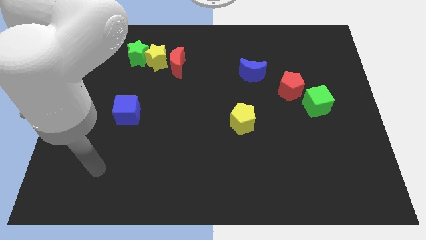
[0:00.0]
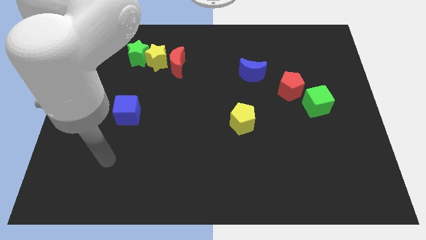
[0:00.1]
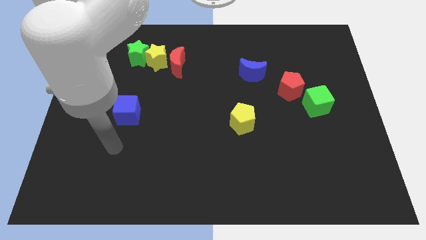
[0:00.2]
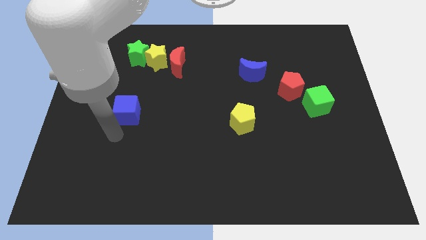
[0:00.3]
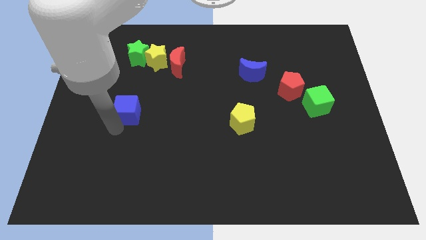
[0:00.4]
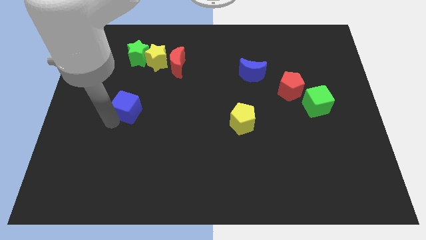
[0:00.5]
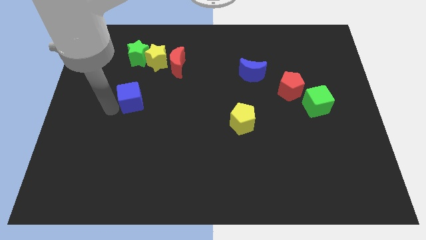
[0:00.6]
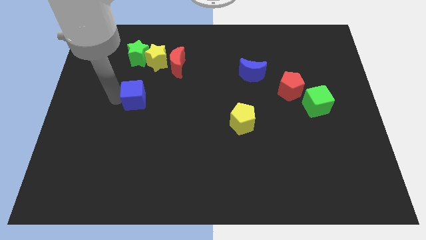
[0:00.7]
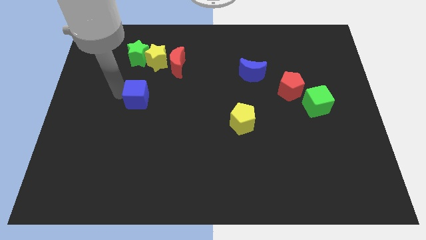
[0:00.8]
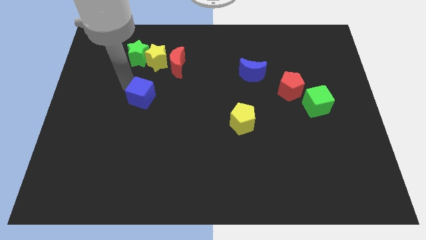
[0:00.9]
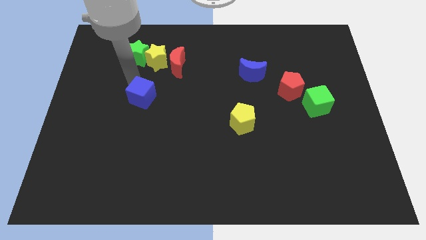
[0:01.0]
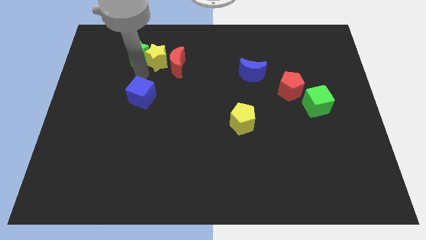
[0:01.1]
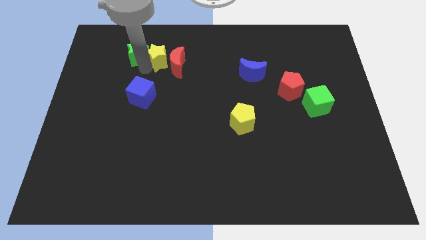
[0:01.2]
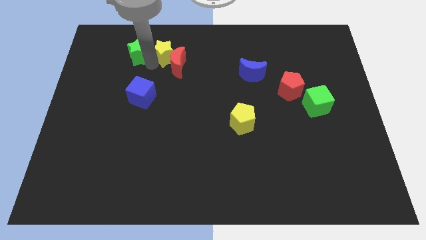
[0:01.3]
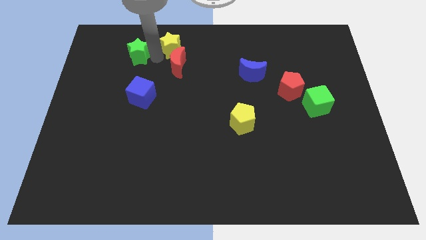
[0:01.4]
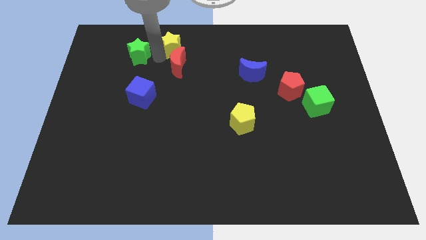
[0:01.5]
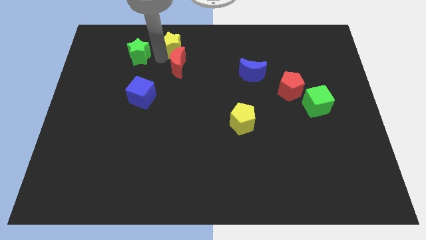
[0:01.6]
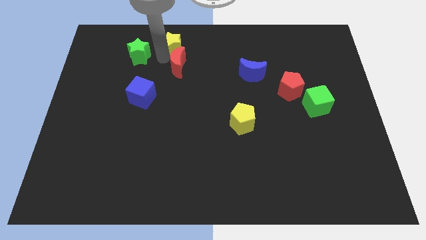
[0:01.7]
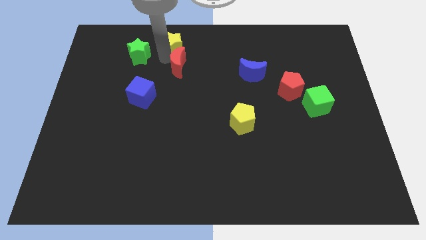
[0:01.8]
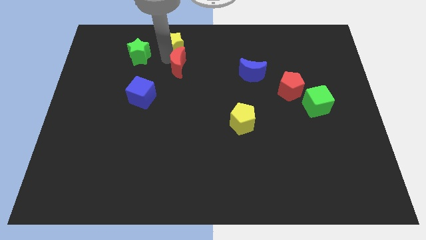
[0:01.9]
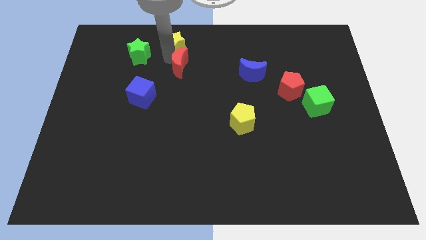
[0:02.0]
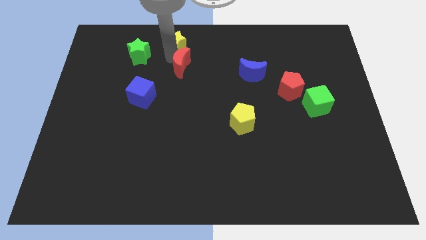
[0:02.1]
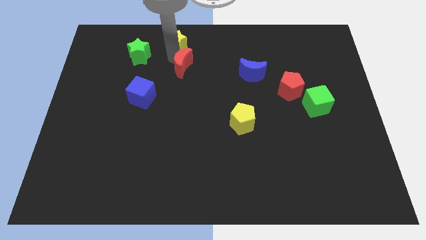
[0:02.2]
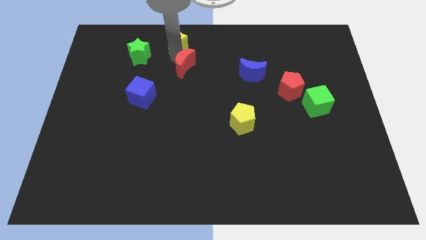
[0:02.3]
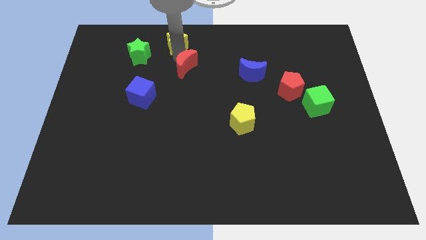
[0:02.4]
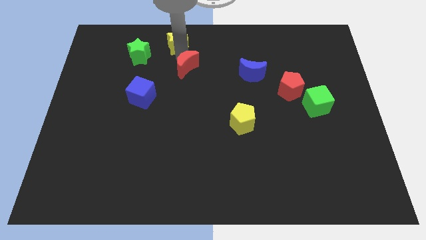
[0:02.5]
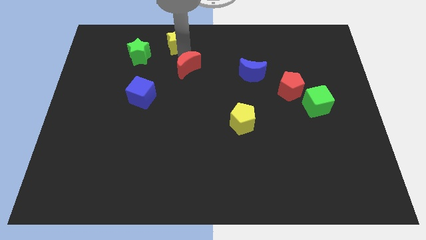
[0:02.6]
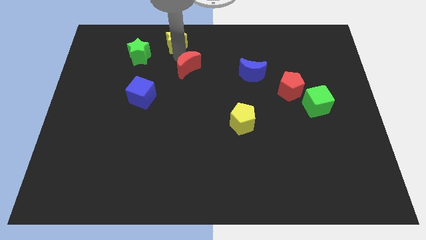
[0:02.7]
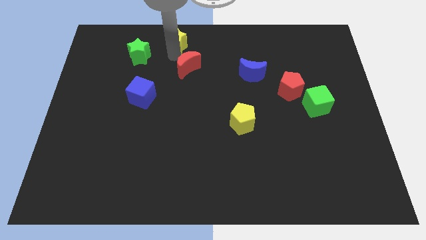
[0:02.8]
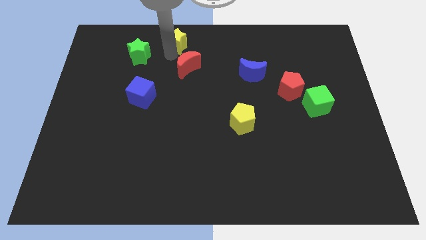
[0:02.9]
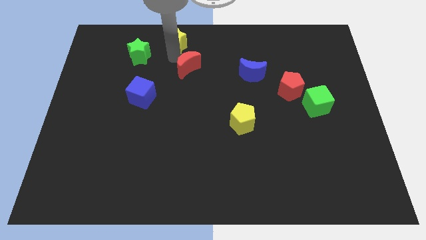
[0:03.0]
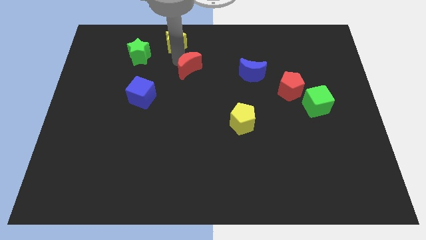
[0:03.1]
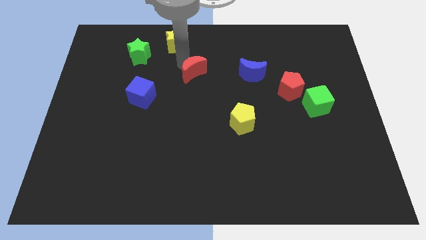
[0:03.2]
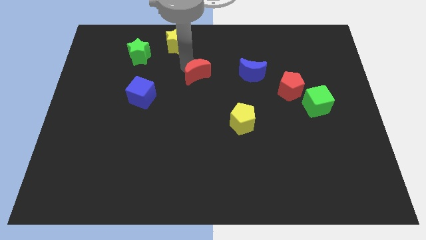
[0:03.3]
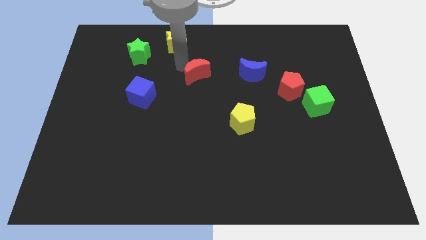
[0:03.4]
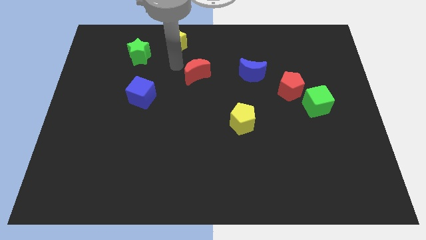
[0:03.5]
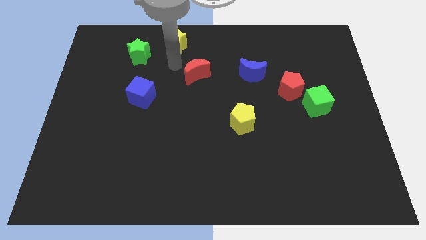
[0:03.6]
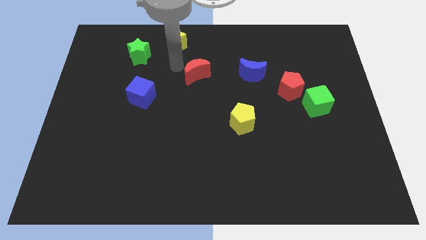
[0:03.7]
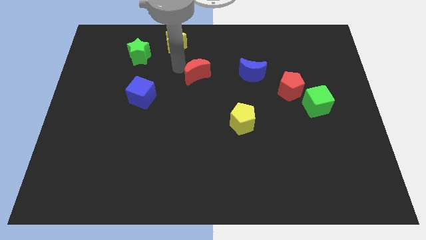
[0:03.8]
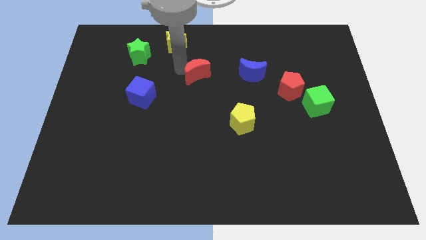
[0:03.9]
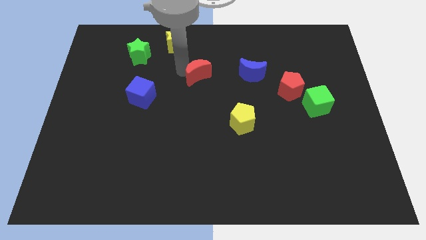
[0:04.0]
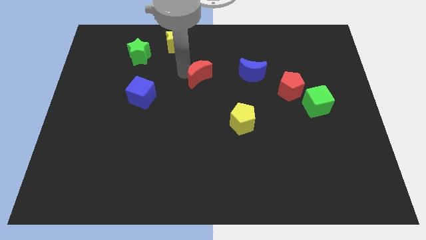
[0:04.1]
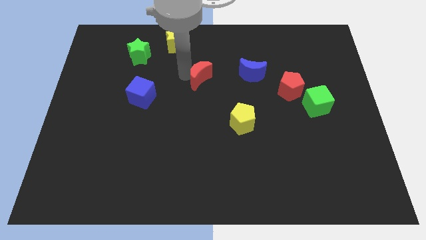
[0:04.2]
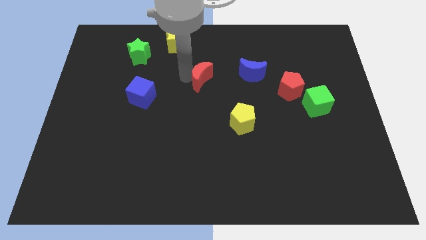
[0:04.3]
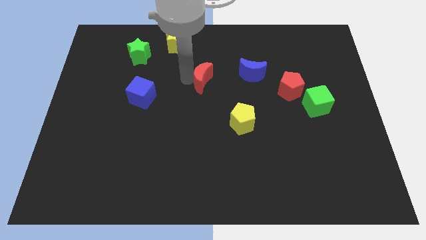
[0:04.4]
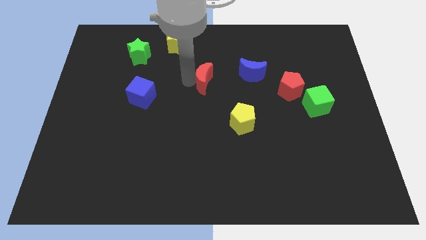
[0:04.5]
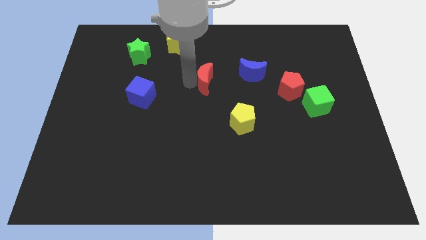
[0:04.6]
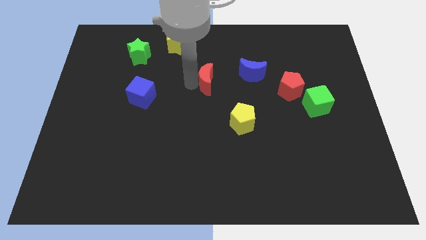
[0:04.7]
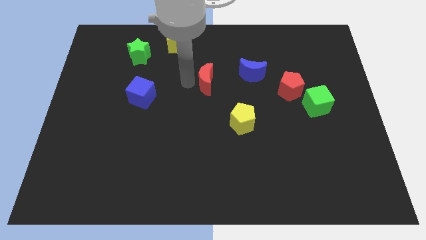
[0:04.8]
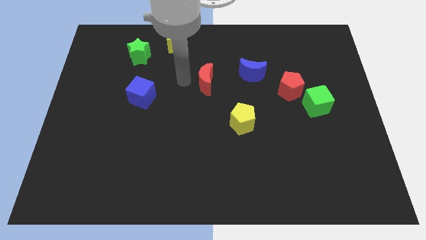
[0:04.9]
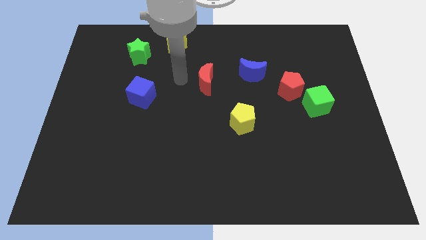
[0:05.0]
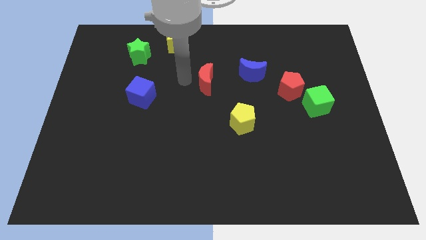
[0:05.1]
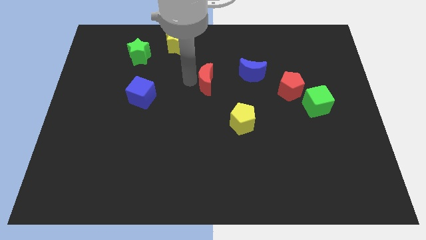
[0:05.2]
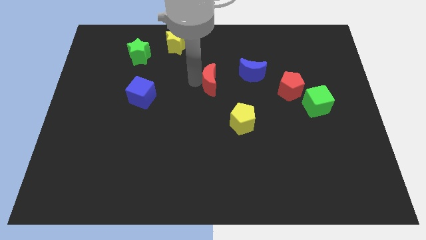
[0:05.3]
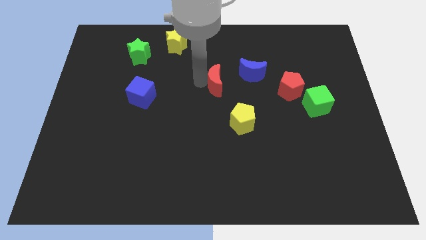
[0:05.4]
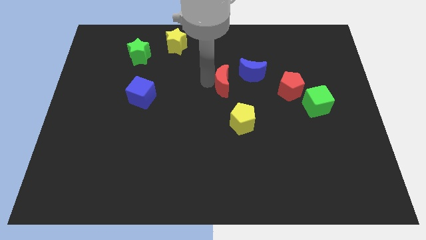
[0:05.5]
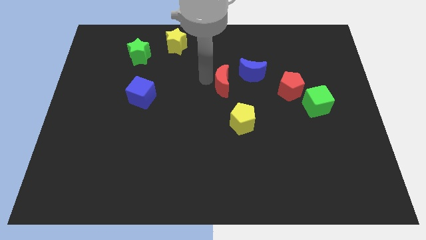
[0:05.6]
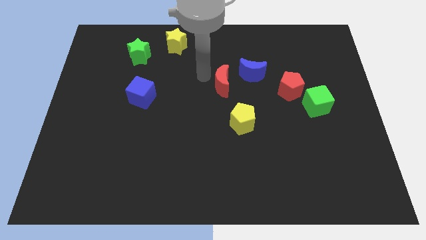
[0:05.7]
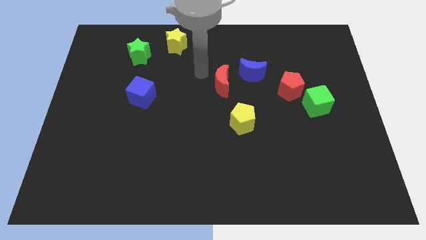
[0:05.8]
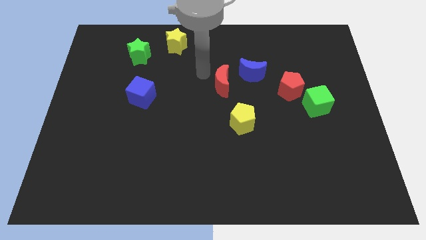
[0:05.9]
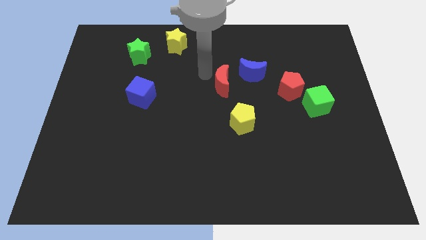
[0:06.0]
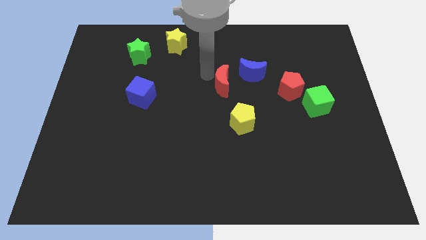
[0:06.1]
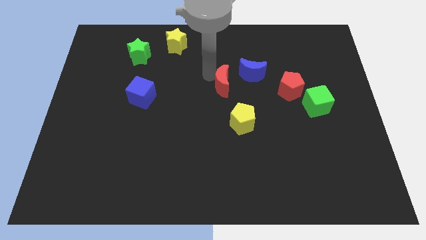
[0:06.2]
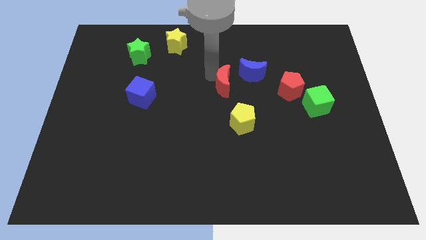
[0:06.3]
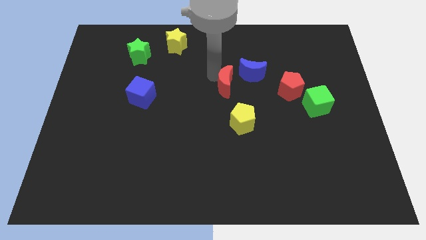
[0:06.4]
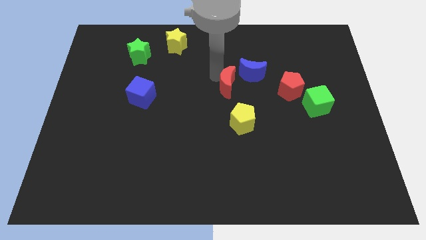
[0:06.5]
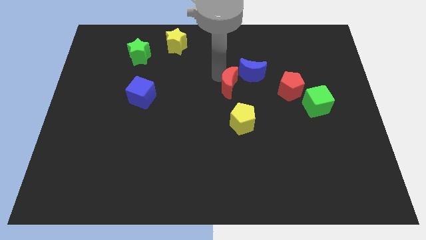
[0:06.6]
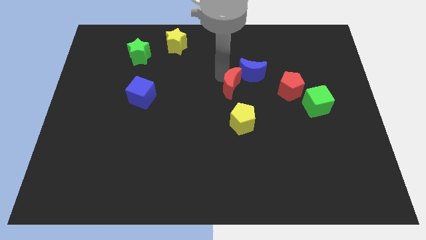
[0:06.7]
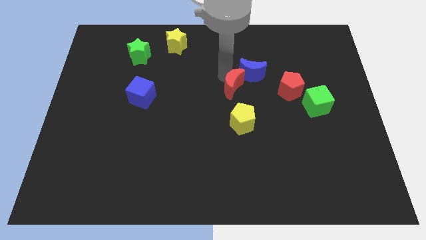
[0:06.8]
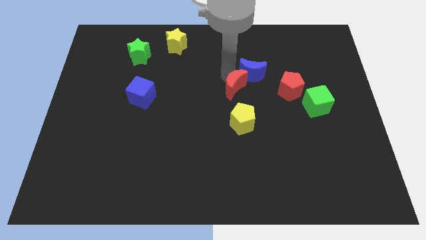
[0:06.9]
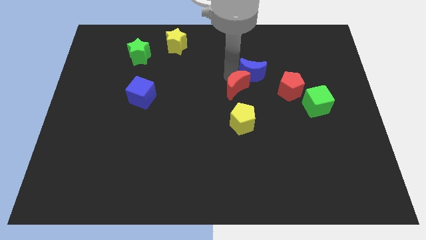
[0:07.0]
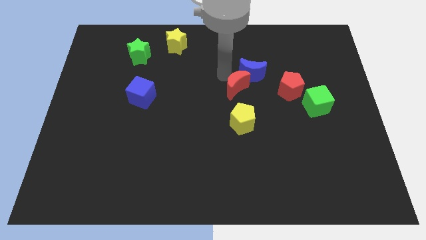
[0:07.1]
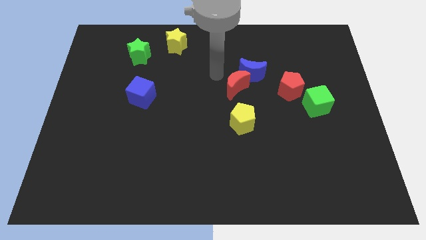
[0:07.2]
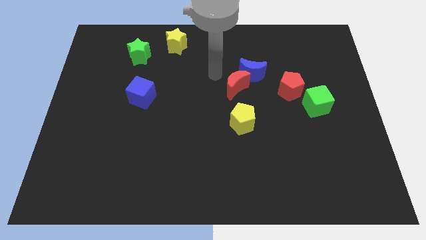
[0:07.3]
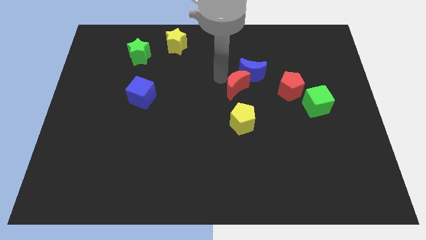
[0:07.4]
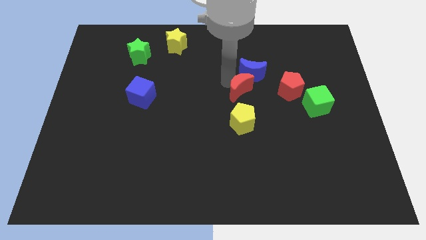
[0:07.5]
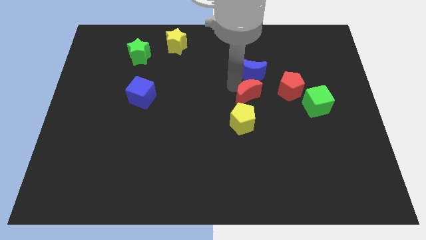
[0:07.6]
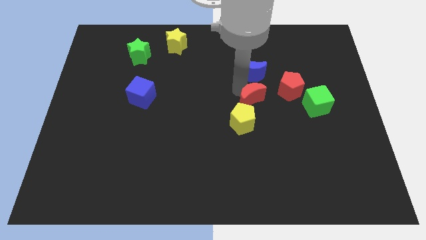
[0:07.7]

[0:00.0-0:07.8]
put the red moon diagonally down and to the left of the red pentagon
